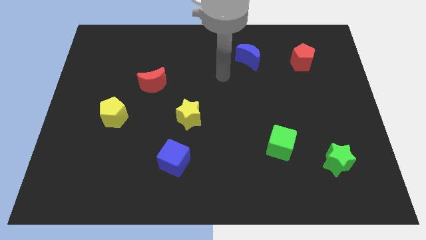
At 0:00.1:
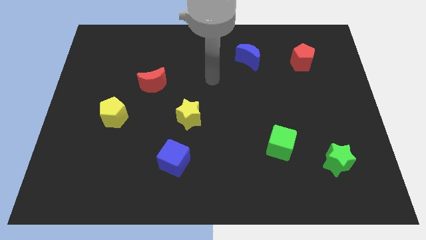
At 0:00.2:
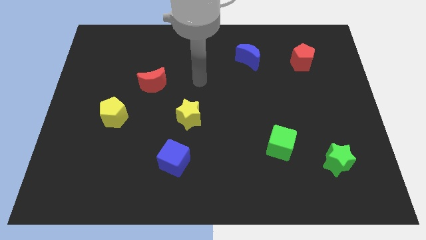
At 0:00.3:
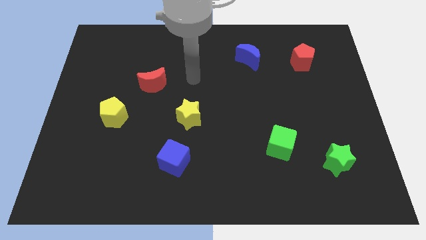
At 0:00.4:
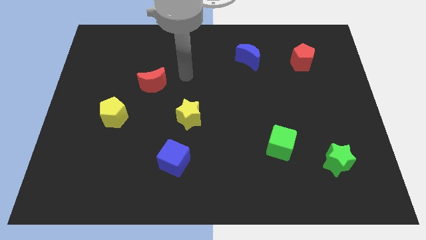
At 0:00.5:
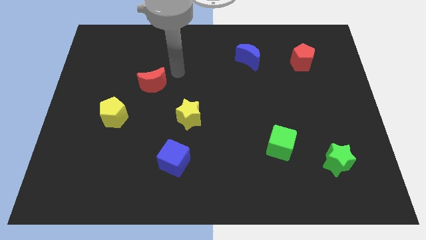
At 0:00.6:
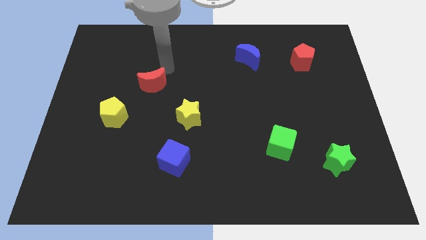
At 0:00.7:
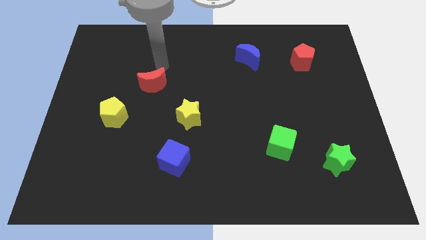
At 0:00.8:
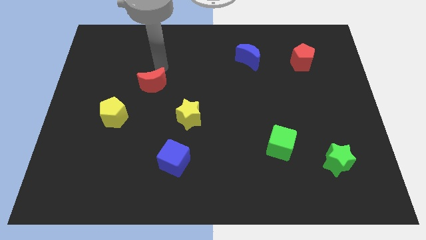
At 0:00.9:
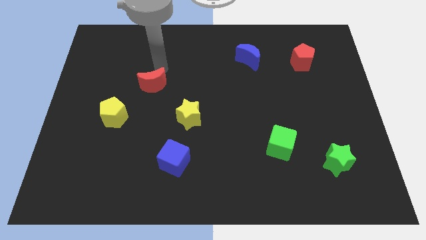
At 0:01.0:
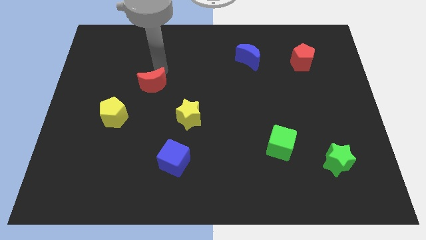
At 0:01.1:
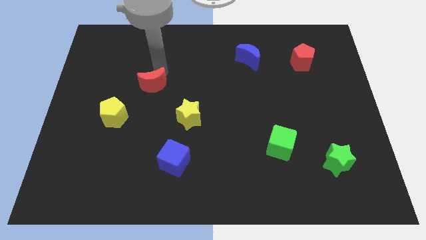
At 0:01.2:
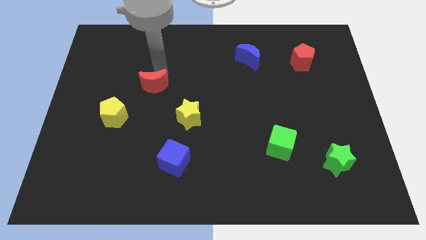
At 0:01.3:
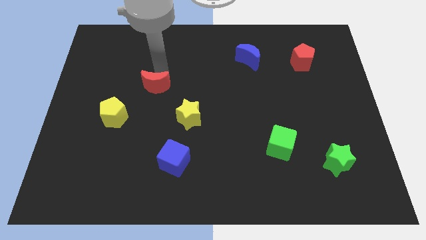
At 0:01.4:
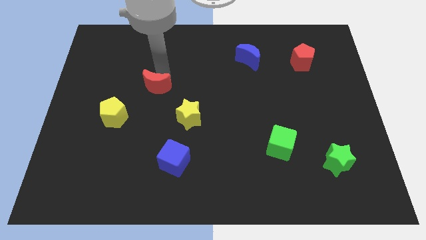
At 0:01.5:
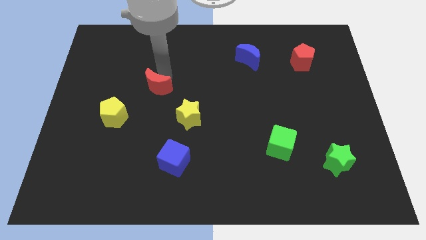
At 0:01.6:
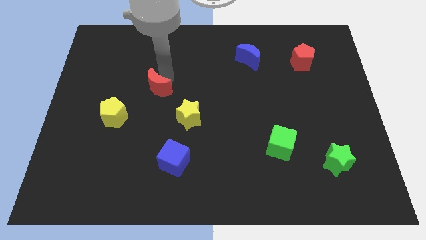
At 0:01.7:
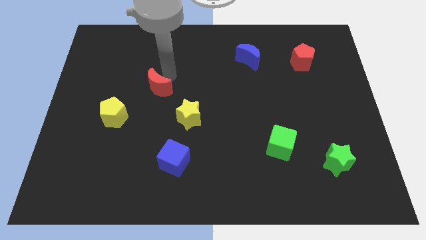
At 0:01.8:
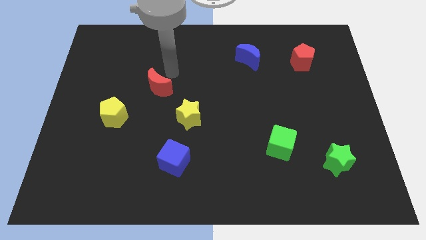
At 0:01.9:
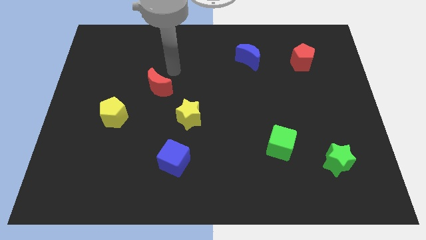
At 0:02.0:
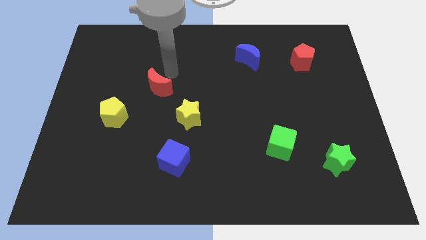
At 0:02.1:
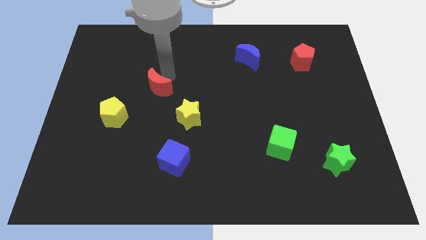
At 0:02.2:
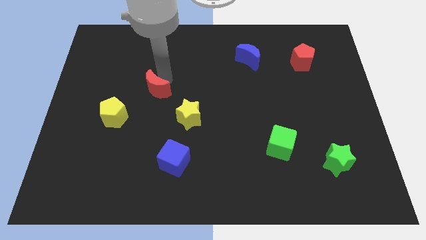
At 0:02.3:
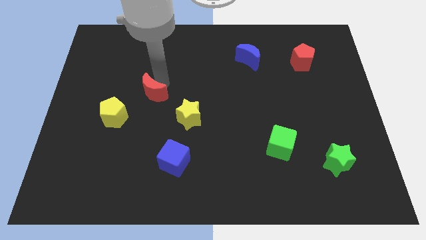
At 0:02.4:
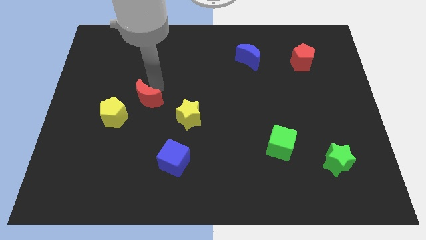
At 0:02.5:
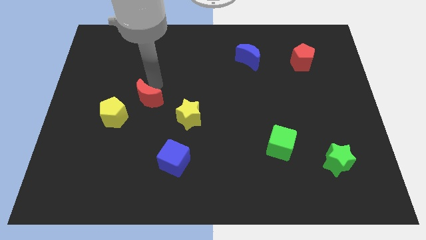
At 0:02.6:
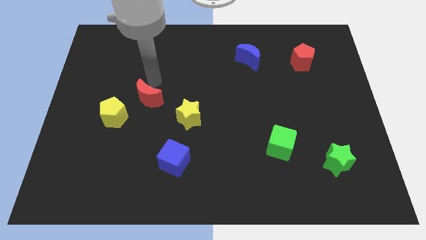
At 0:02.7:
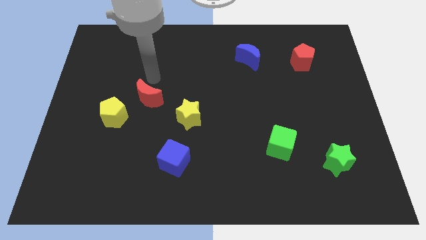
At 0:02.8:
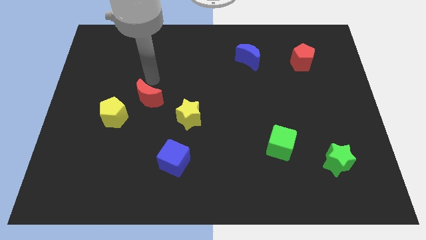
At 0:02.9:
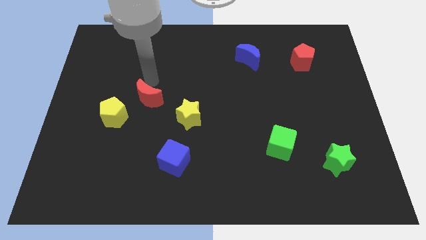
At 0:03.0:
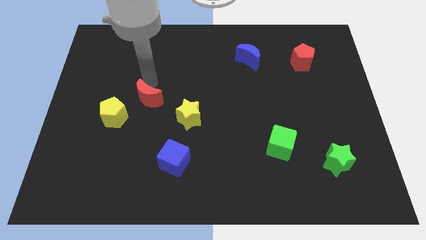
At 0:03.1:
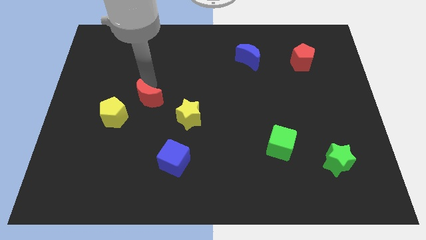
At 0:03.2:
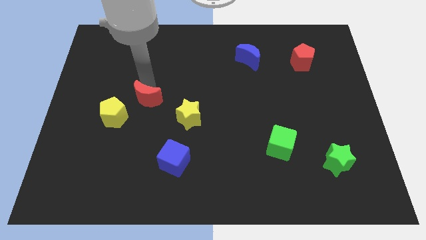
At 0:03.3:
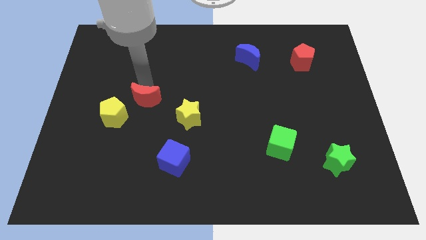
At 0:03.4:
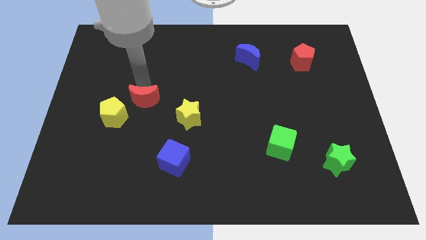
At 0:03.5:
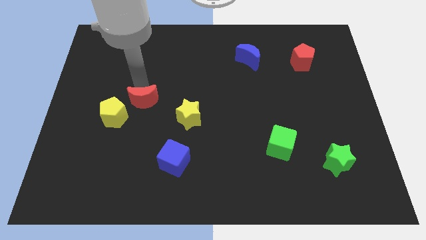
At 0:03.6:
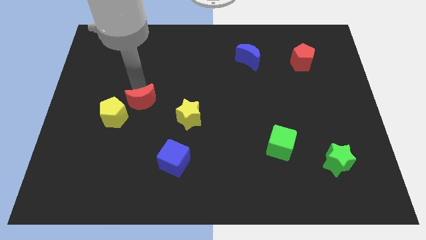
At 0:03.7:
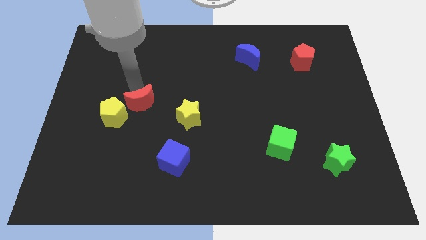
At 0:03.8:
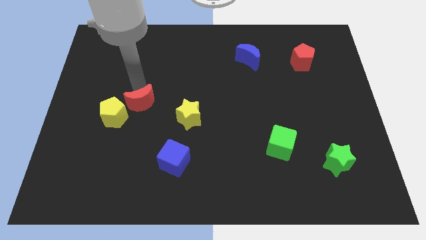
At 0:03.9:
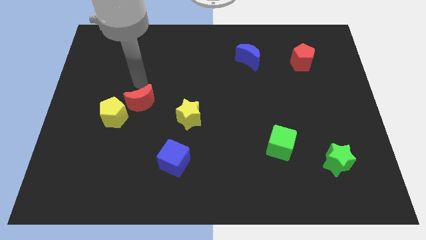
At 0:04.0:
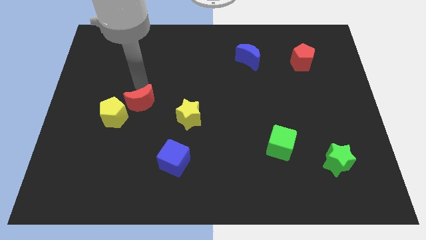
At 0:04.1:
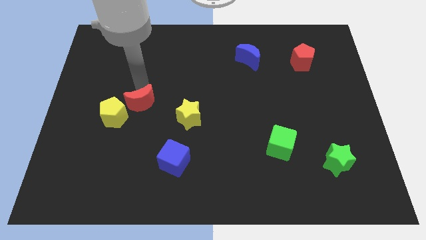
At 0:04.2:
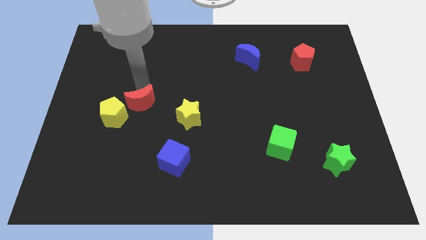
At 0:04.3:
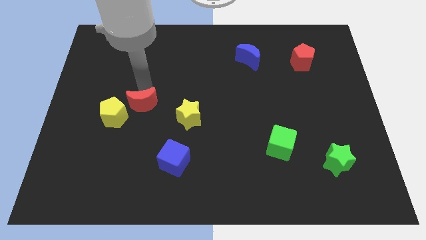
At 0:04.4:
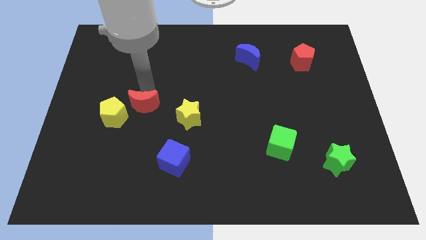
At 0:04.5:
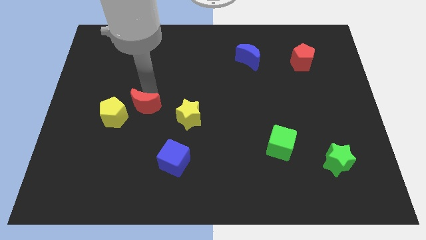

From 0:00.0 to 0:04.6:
slide the red moon down a little bit

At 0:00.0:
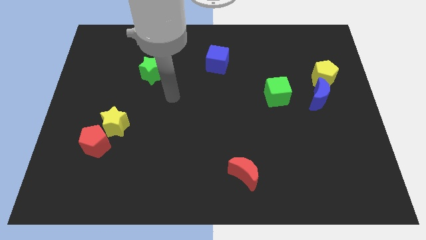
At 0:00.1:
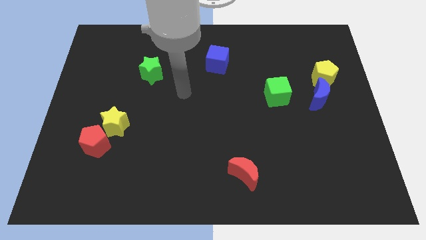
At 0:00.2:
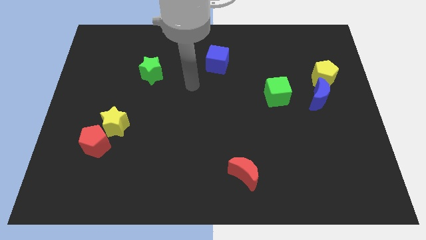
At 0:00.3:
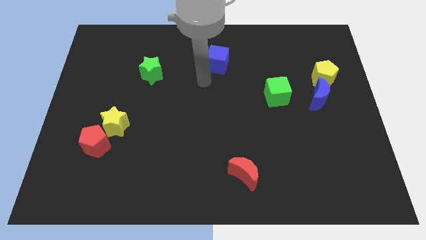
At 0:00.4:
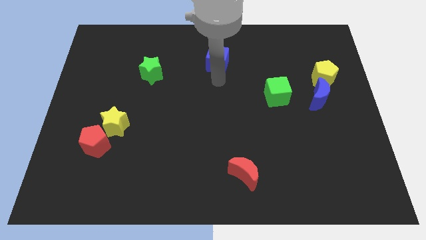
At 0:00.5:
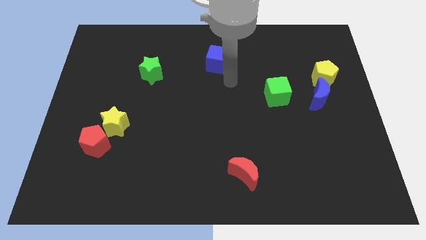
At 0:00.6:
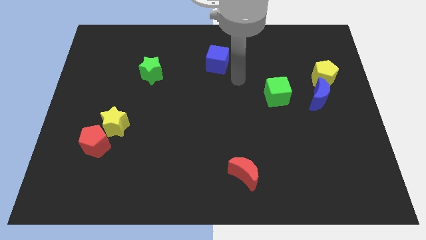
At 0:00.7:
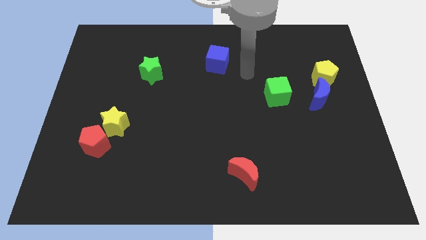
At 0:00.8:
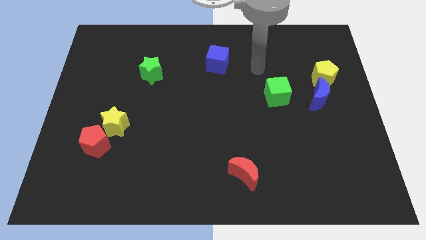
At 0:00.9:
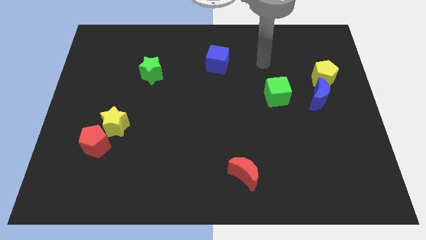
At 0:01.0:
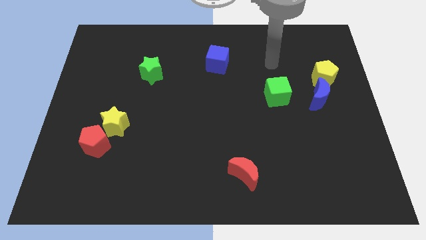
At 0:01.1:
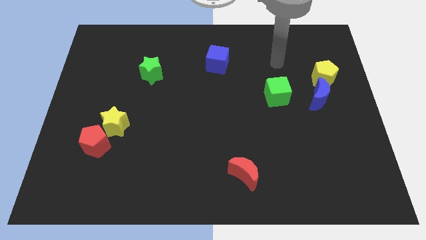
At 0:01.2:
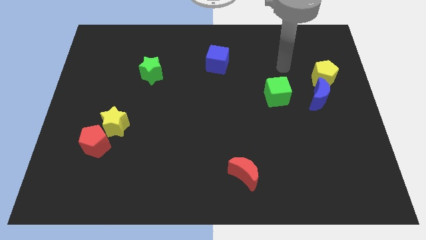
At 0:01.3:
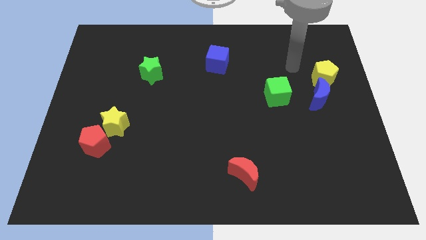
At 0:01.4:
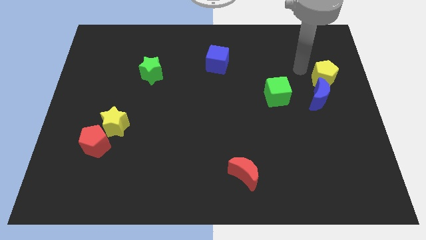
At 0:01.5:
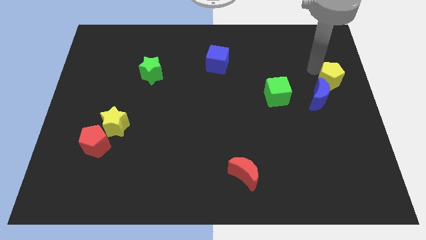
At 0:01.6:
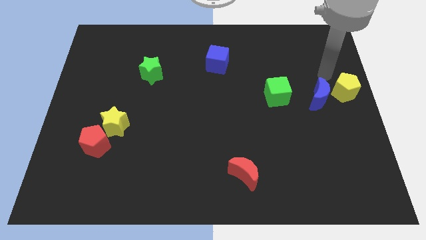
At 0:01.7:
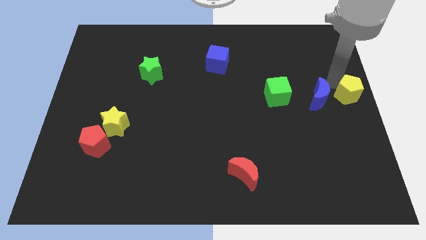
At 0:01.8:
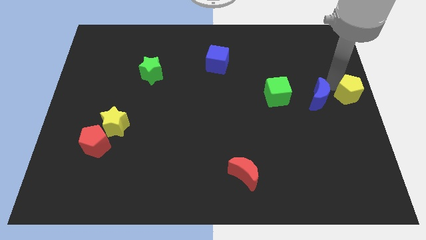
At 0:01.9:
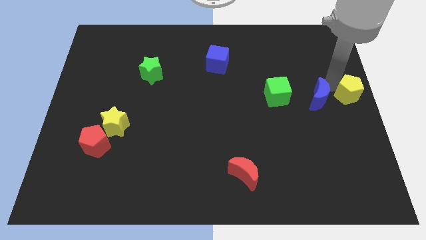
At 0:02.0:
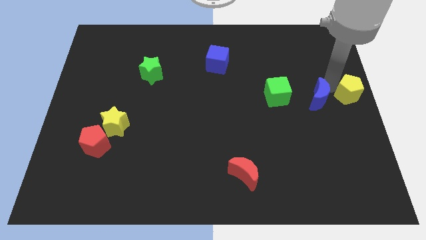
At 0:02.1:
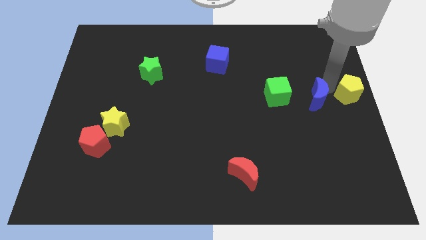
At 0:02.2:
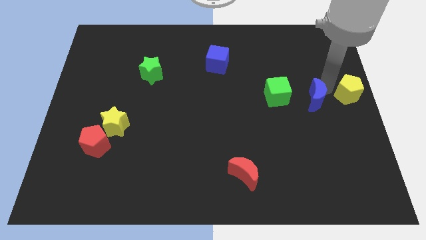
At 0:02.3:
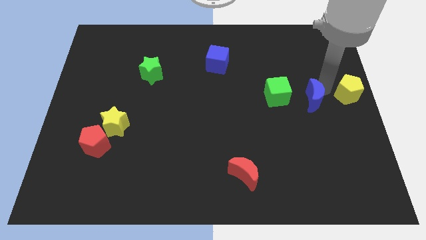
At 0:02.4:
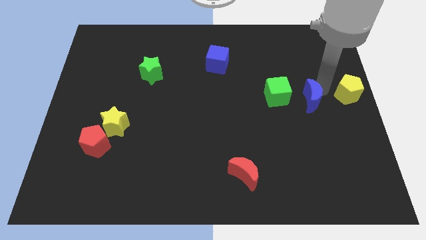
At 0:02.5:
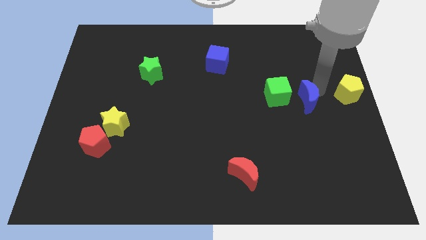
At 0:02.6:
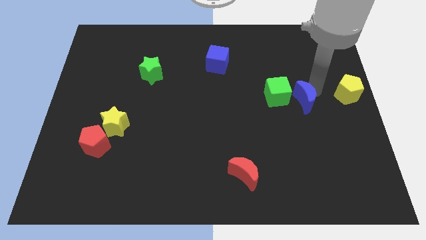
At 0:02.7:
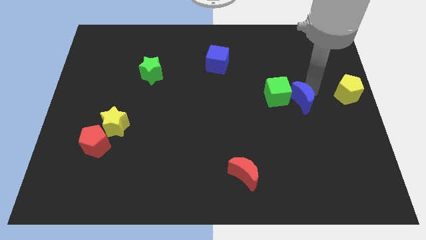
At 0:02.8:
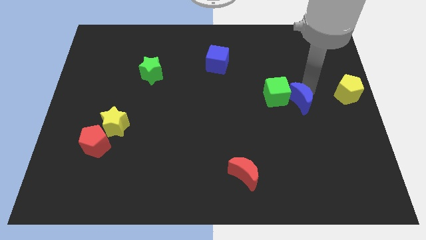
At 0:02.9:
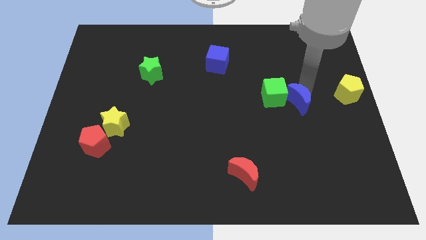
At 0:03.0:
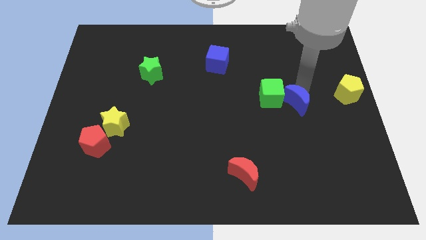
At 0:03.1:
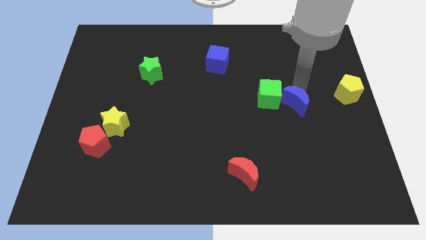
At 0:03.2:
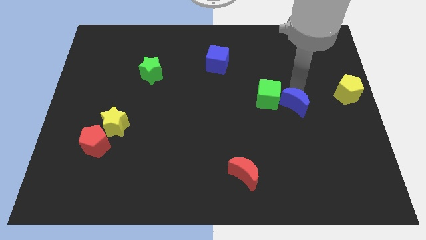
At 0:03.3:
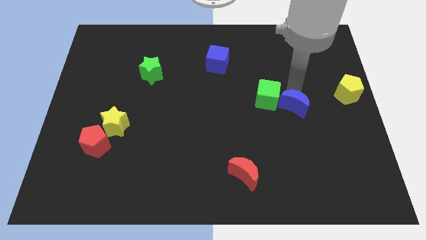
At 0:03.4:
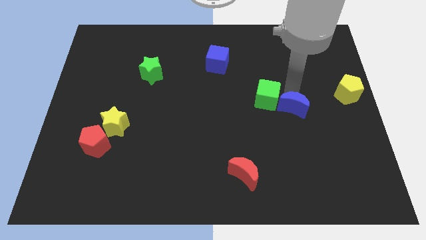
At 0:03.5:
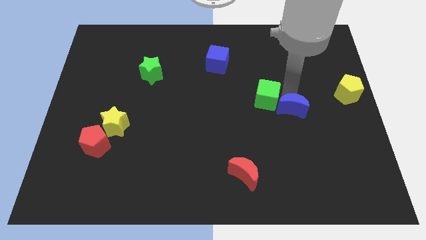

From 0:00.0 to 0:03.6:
move the blue moon downwards and to the left a little bit
